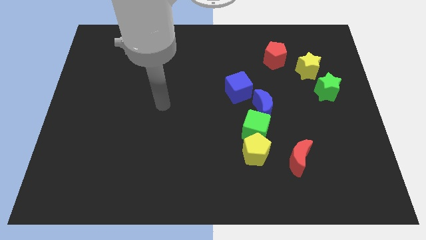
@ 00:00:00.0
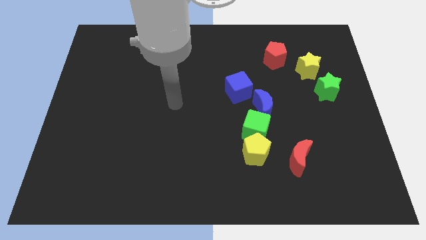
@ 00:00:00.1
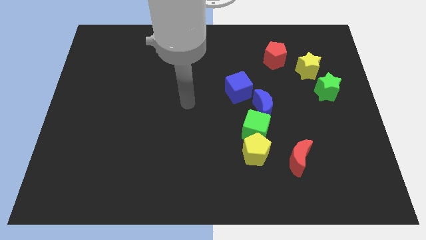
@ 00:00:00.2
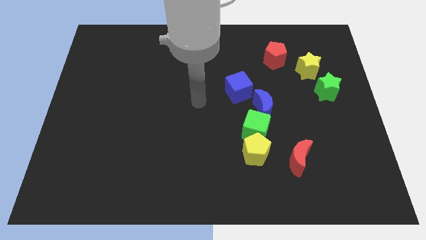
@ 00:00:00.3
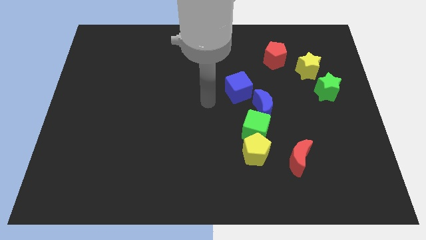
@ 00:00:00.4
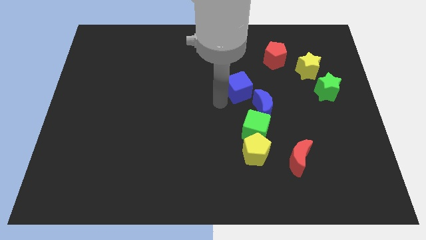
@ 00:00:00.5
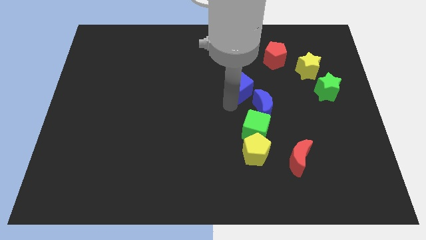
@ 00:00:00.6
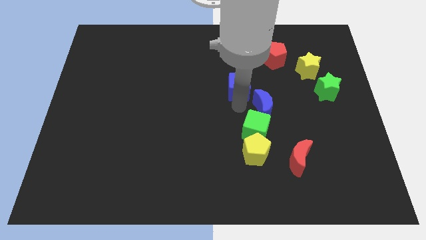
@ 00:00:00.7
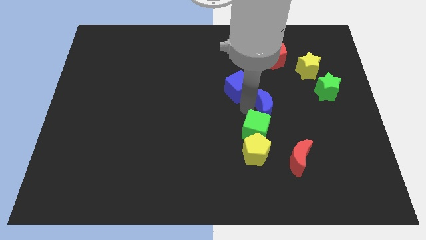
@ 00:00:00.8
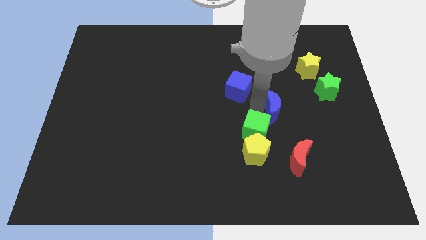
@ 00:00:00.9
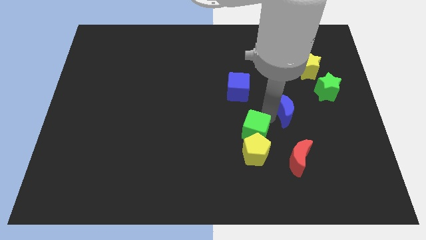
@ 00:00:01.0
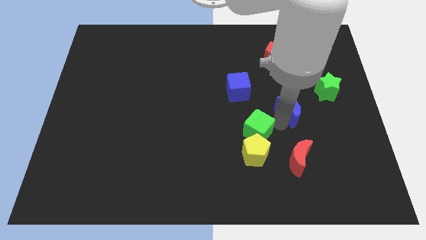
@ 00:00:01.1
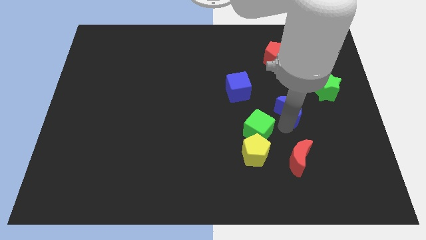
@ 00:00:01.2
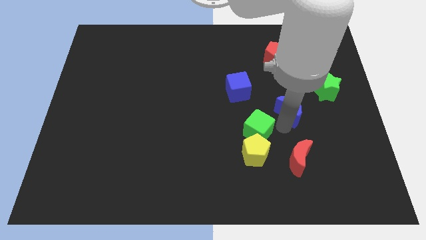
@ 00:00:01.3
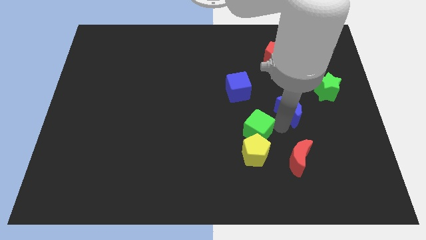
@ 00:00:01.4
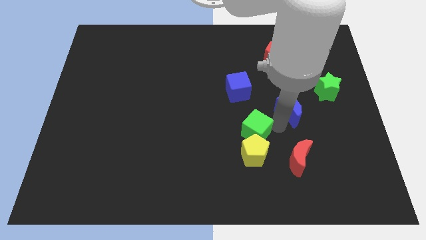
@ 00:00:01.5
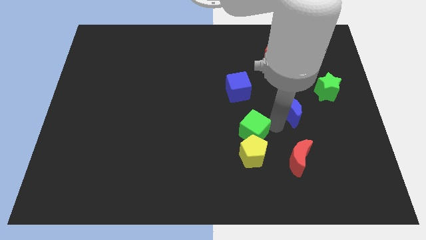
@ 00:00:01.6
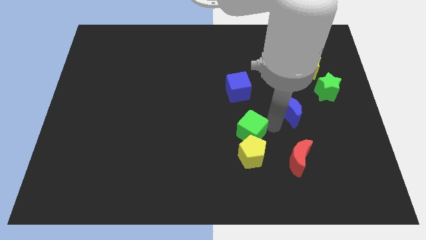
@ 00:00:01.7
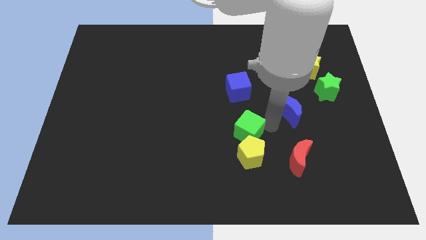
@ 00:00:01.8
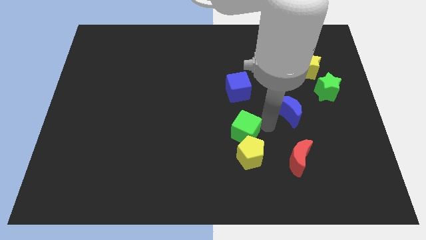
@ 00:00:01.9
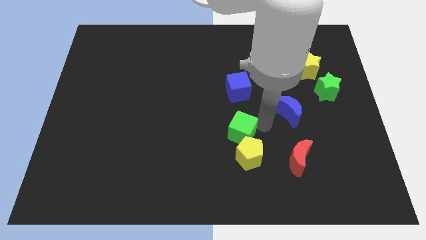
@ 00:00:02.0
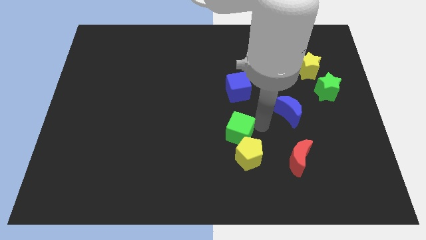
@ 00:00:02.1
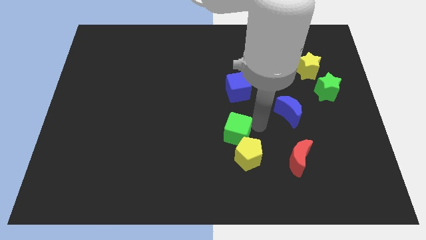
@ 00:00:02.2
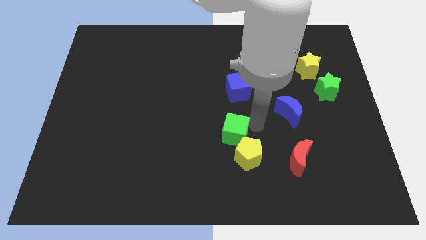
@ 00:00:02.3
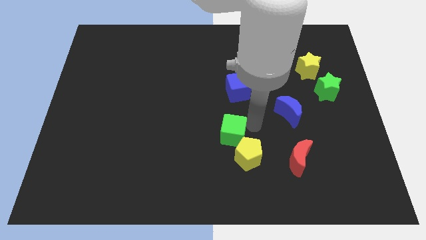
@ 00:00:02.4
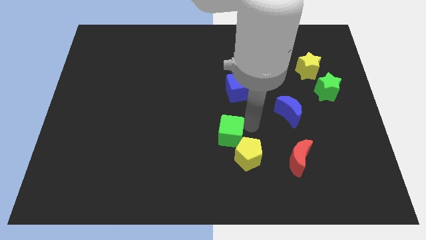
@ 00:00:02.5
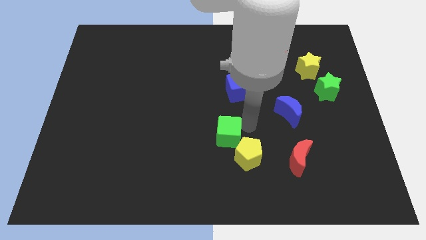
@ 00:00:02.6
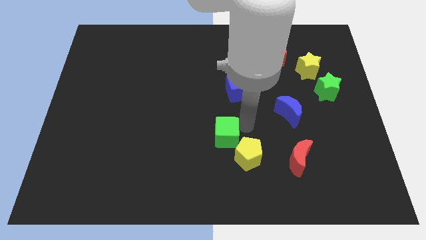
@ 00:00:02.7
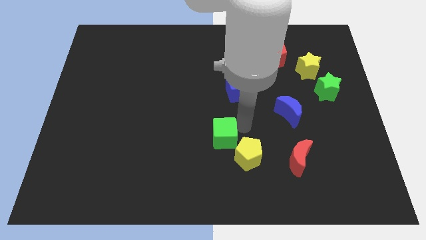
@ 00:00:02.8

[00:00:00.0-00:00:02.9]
pull the green cube apart from the yellow pentagon and blue moon

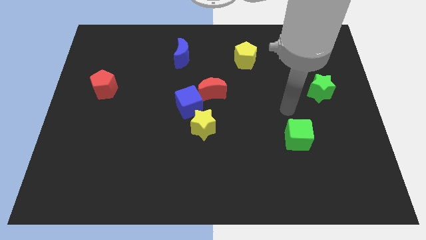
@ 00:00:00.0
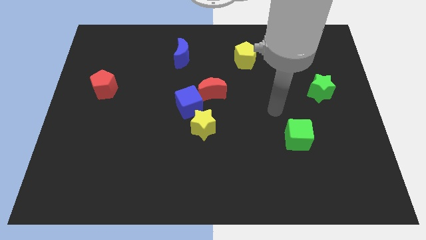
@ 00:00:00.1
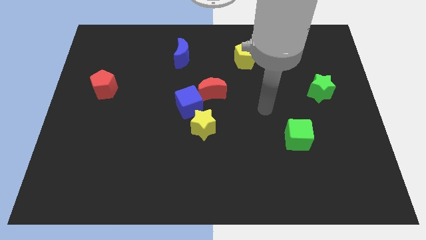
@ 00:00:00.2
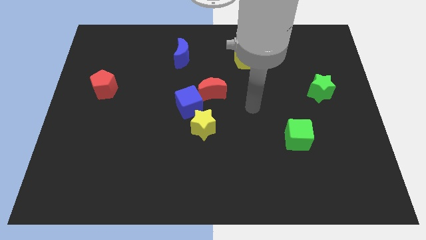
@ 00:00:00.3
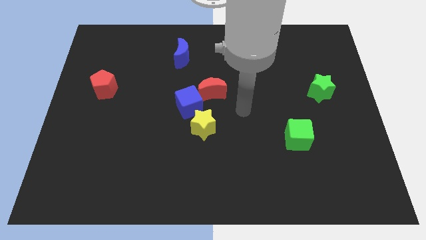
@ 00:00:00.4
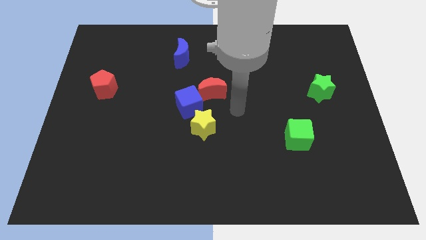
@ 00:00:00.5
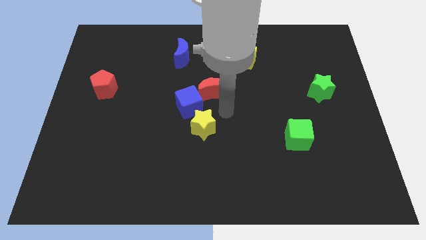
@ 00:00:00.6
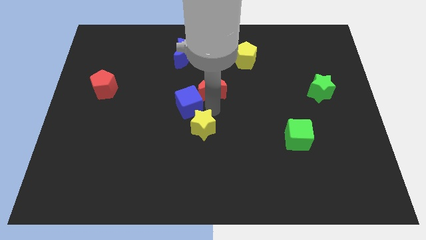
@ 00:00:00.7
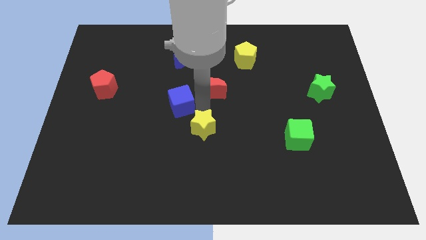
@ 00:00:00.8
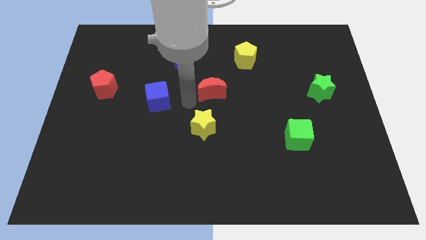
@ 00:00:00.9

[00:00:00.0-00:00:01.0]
pull the red moon apart from the blue cube

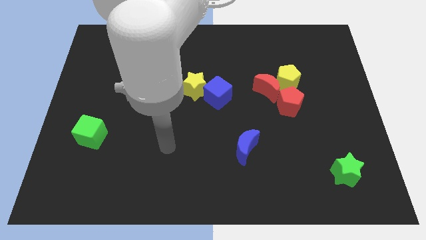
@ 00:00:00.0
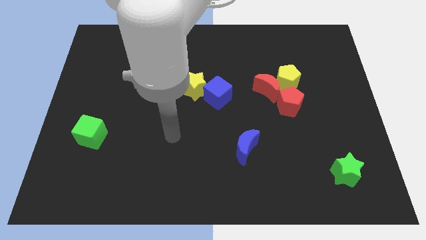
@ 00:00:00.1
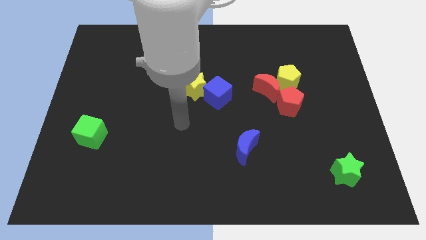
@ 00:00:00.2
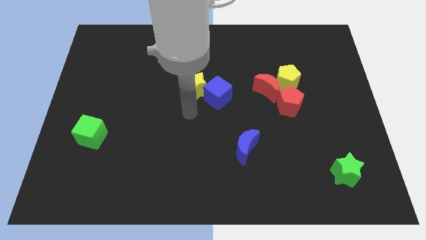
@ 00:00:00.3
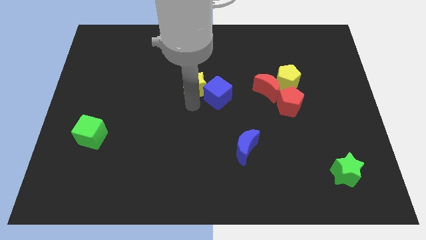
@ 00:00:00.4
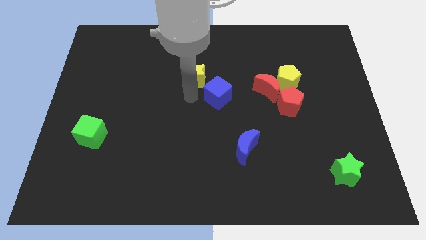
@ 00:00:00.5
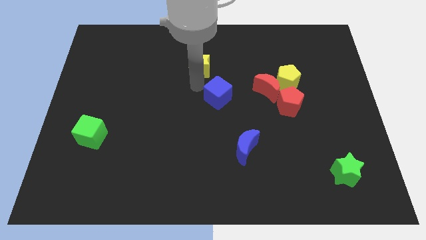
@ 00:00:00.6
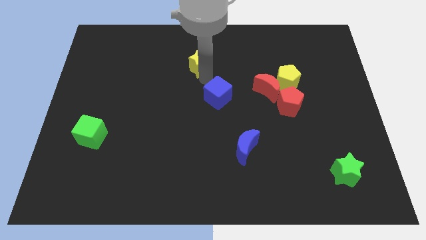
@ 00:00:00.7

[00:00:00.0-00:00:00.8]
move the blue cube away from the yellow star

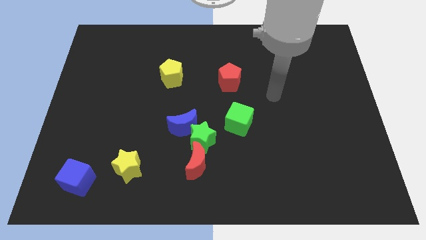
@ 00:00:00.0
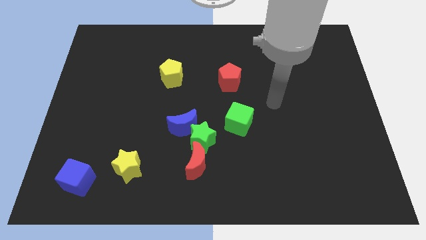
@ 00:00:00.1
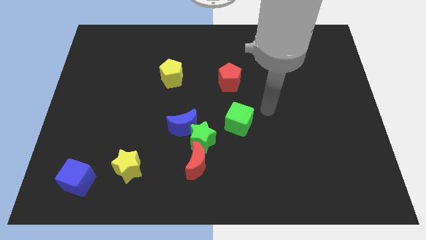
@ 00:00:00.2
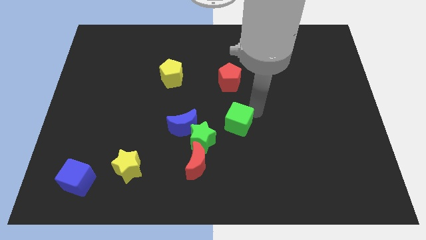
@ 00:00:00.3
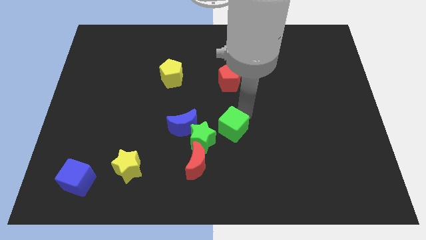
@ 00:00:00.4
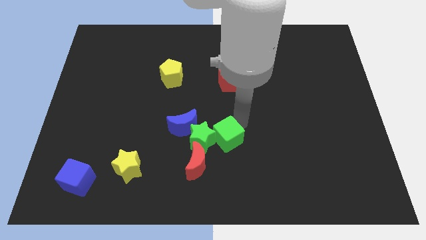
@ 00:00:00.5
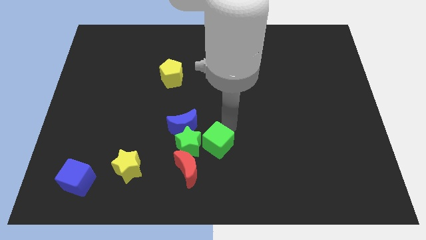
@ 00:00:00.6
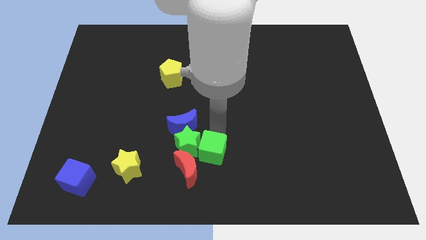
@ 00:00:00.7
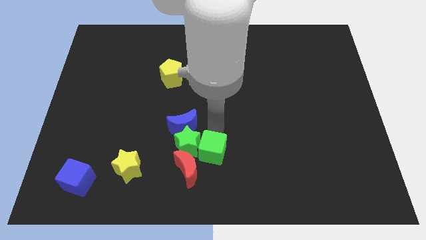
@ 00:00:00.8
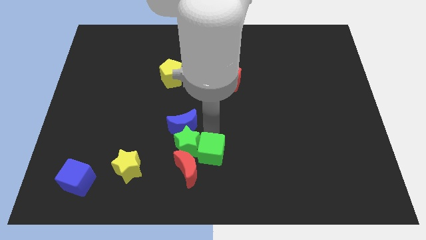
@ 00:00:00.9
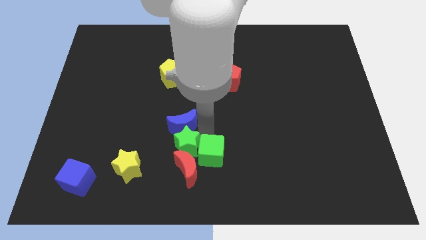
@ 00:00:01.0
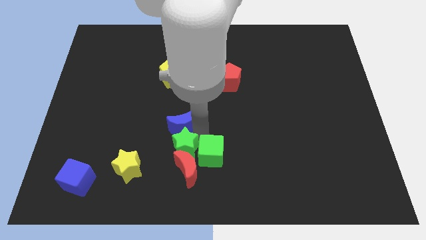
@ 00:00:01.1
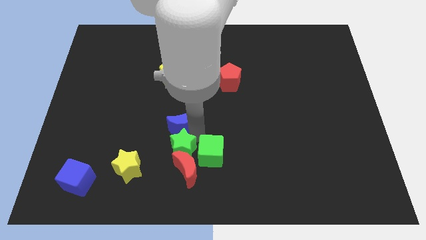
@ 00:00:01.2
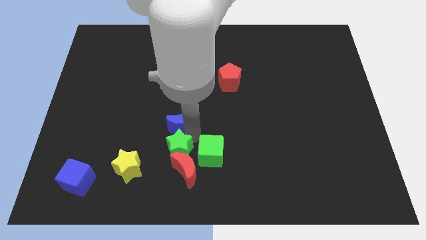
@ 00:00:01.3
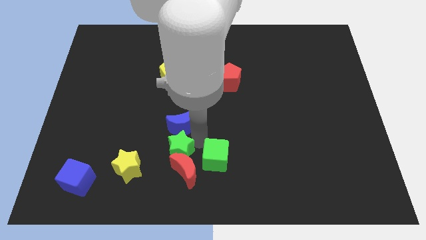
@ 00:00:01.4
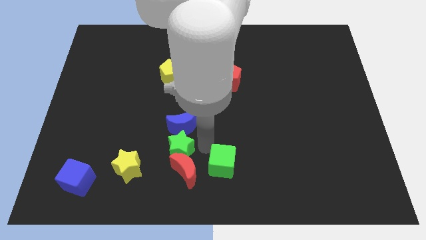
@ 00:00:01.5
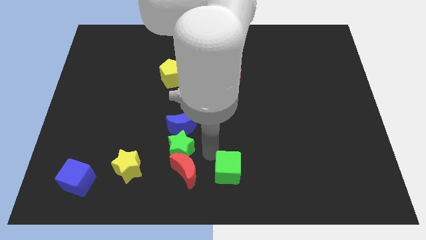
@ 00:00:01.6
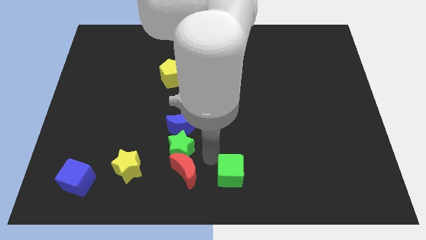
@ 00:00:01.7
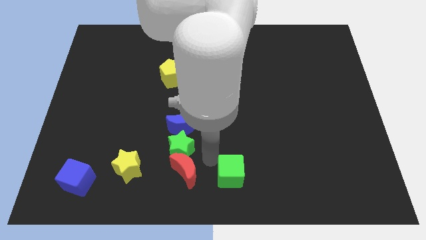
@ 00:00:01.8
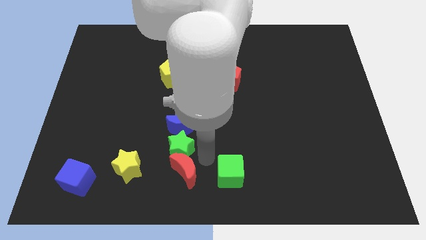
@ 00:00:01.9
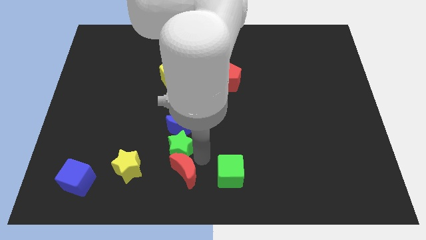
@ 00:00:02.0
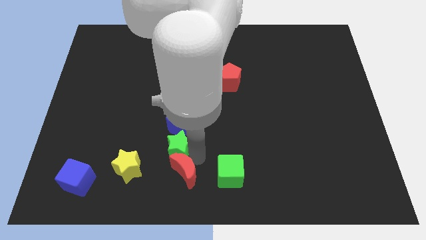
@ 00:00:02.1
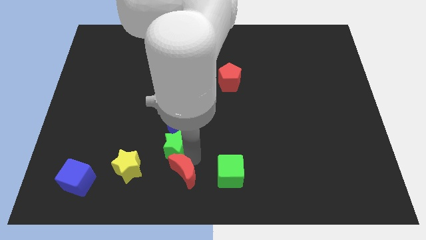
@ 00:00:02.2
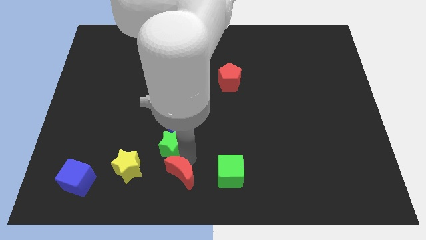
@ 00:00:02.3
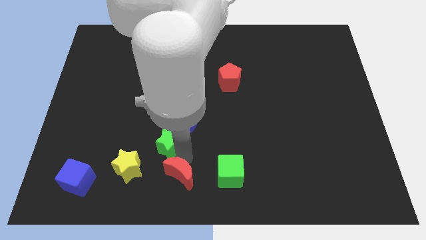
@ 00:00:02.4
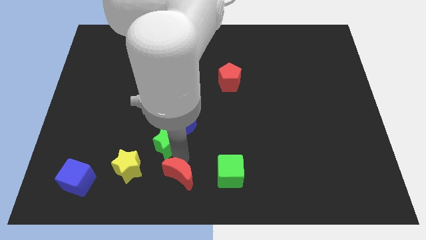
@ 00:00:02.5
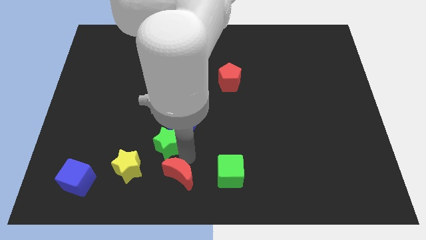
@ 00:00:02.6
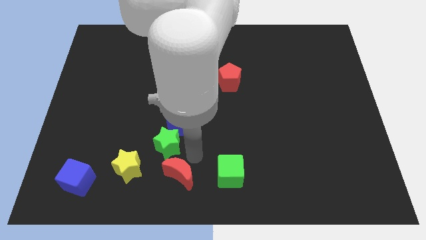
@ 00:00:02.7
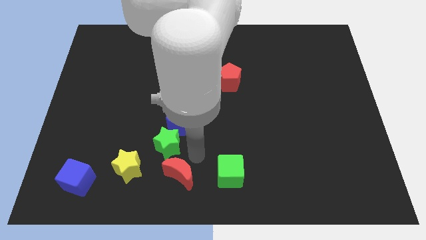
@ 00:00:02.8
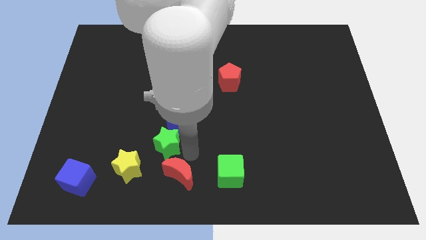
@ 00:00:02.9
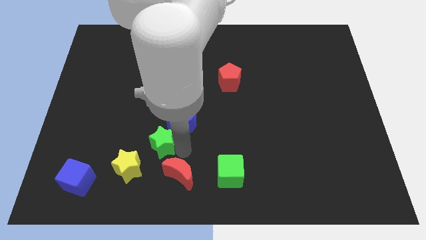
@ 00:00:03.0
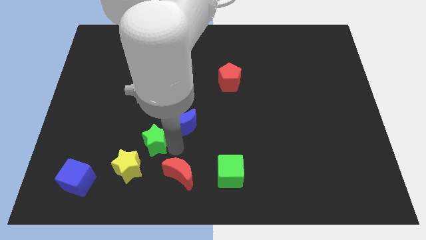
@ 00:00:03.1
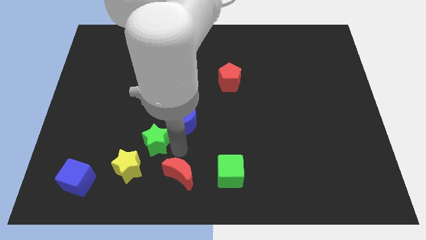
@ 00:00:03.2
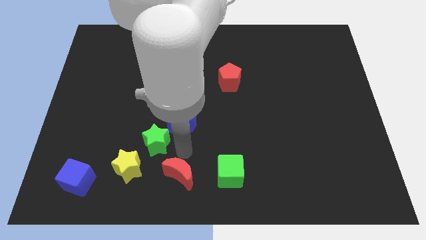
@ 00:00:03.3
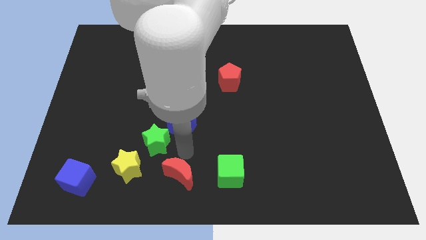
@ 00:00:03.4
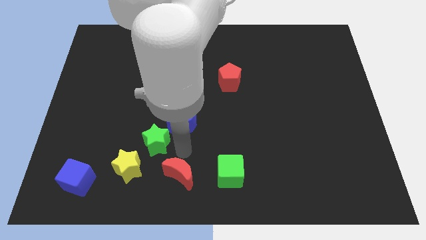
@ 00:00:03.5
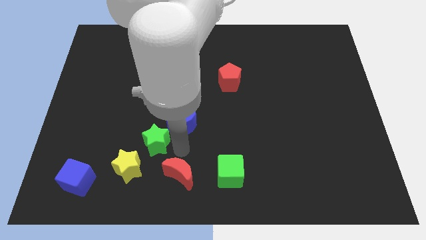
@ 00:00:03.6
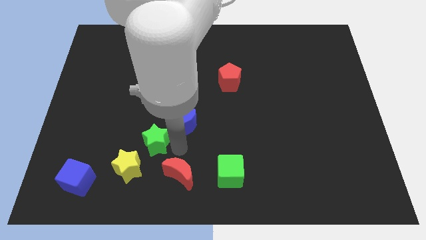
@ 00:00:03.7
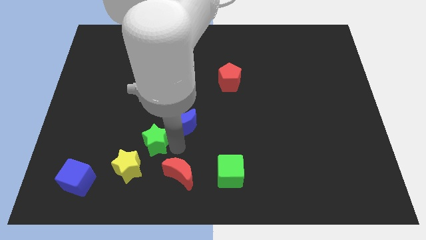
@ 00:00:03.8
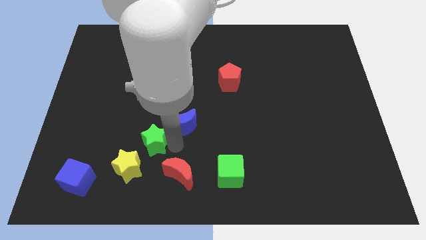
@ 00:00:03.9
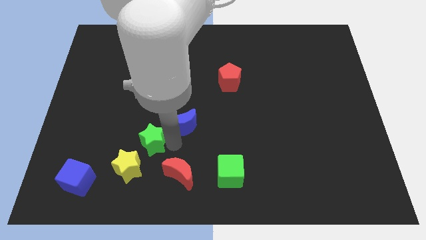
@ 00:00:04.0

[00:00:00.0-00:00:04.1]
move the green star away from the group

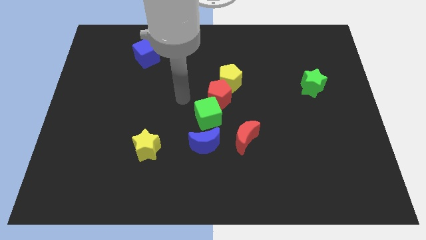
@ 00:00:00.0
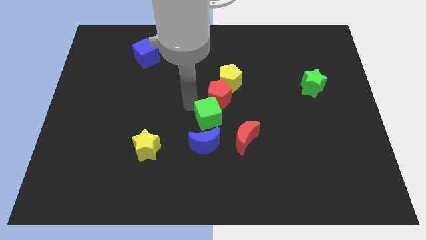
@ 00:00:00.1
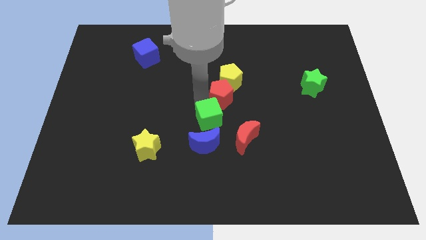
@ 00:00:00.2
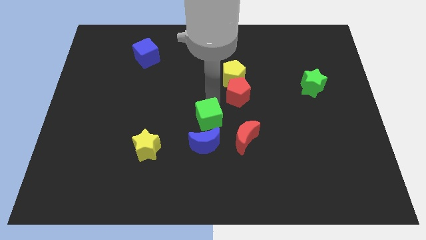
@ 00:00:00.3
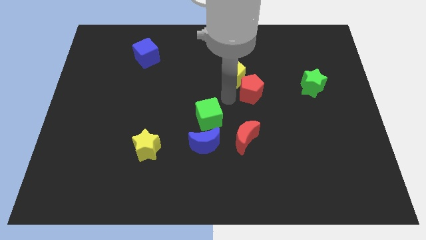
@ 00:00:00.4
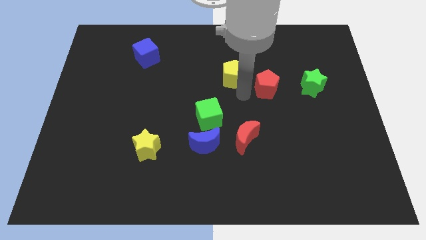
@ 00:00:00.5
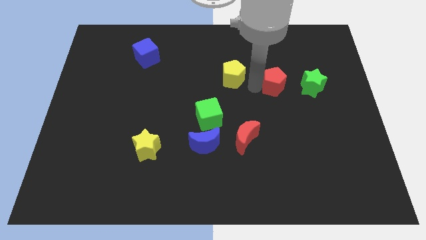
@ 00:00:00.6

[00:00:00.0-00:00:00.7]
separate the yellow pentagon from the red pentagon
